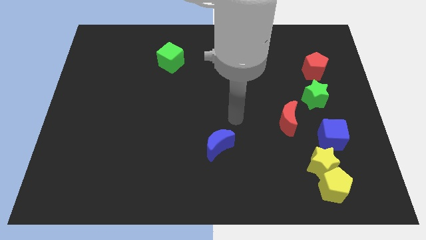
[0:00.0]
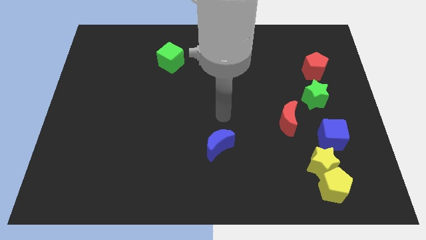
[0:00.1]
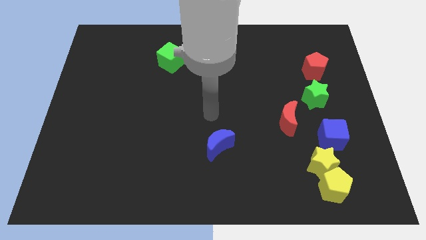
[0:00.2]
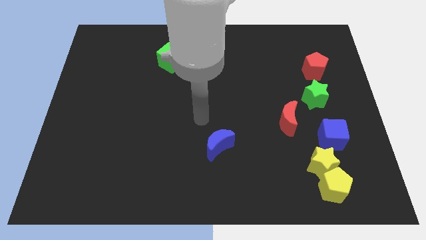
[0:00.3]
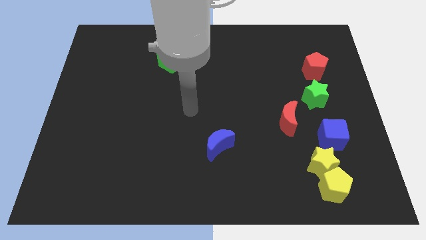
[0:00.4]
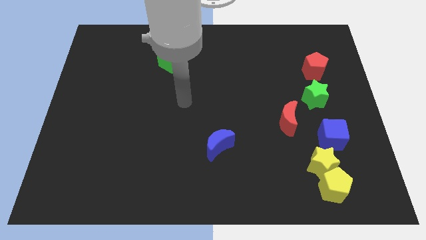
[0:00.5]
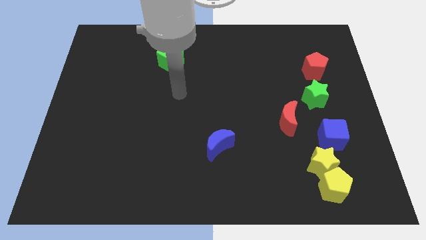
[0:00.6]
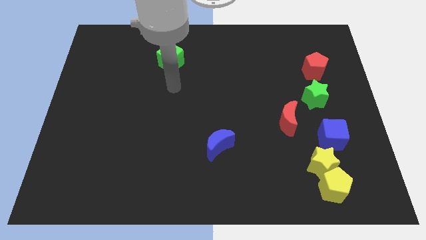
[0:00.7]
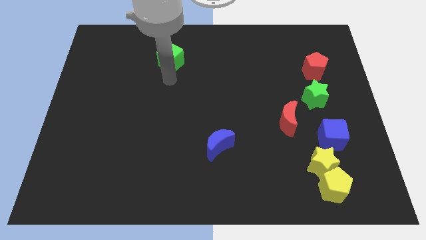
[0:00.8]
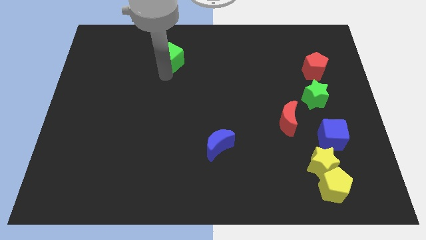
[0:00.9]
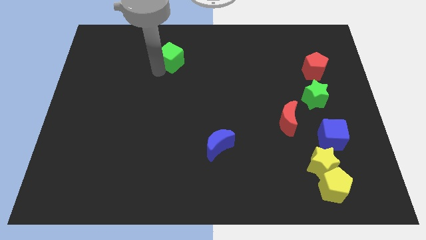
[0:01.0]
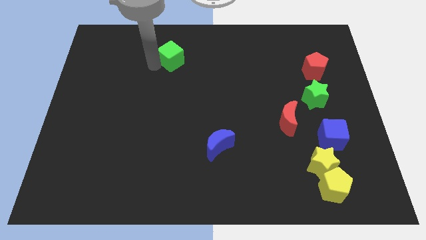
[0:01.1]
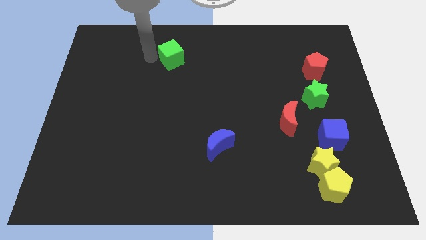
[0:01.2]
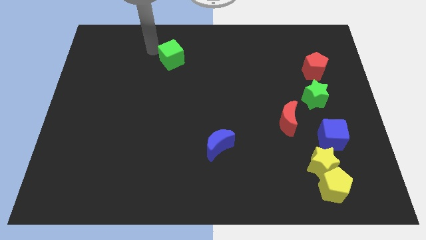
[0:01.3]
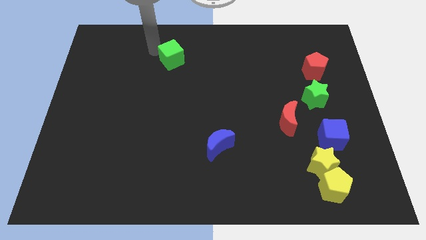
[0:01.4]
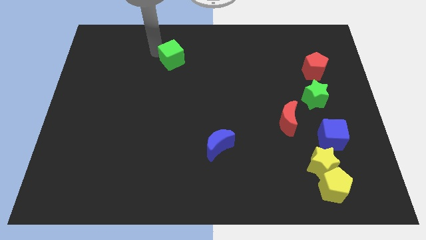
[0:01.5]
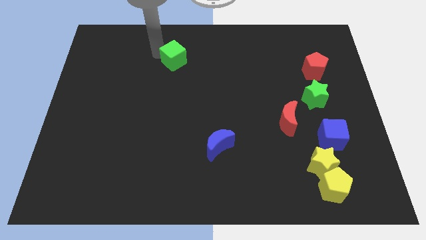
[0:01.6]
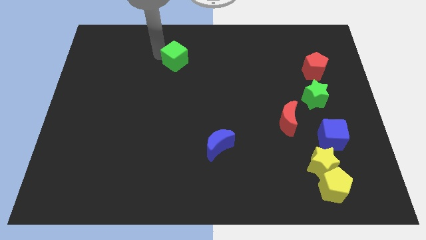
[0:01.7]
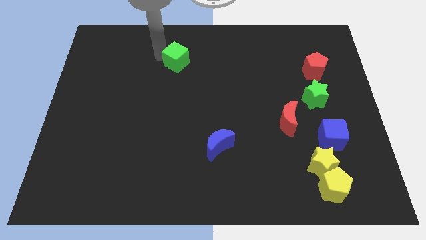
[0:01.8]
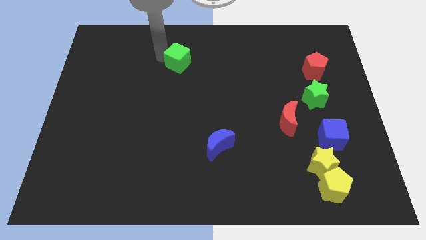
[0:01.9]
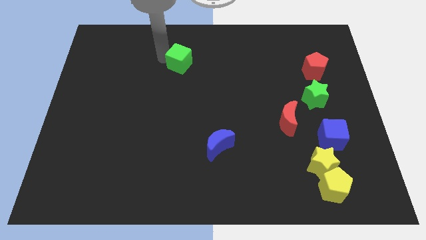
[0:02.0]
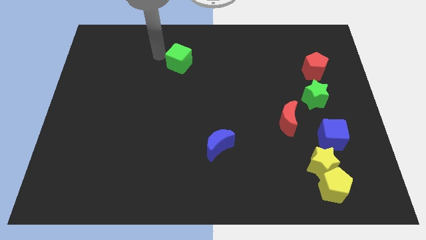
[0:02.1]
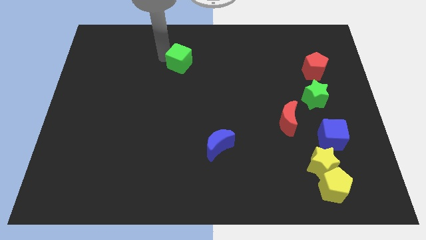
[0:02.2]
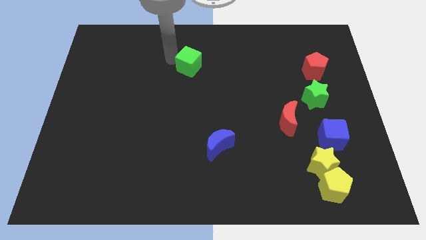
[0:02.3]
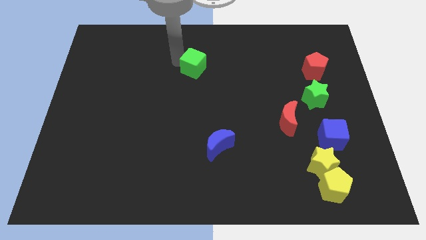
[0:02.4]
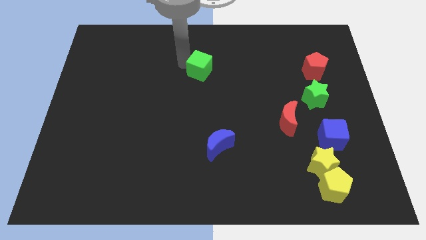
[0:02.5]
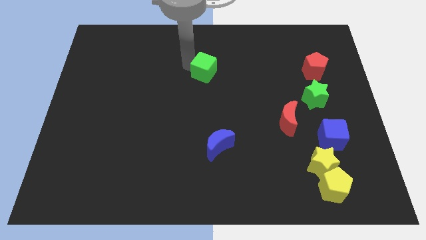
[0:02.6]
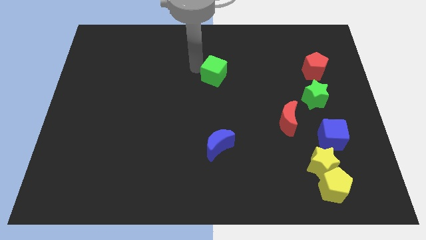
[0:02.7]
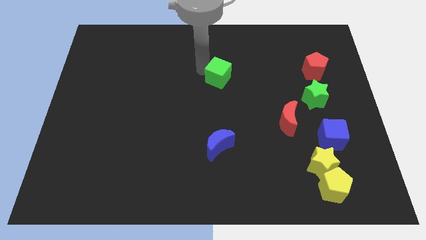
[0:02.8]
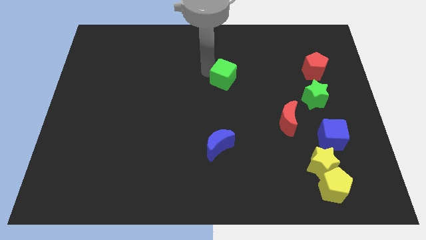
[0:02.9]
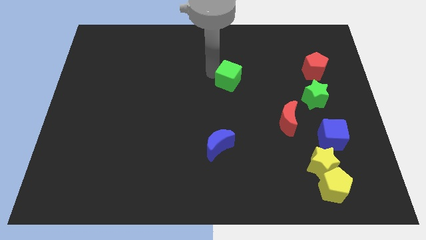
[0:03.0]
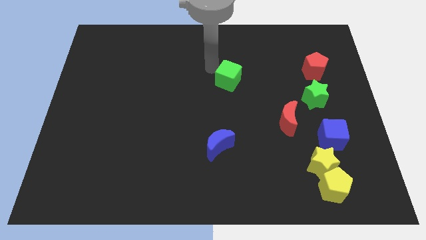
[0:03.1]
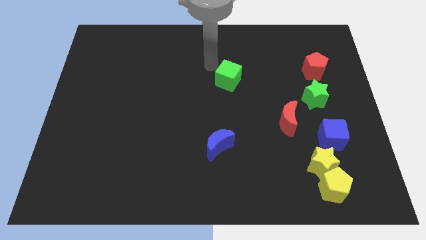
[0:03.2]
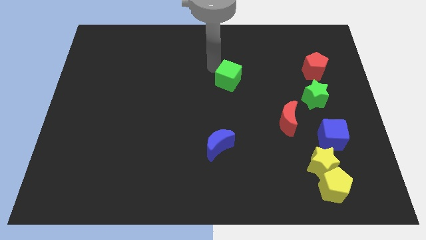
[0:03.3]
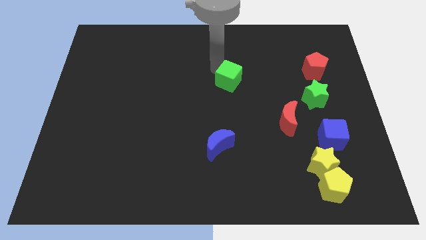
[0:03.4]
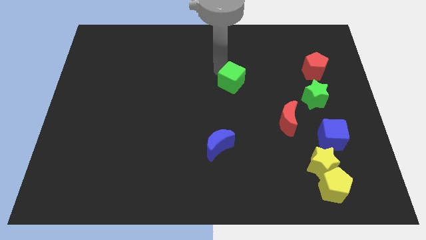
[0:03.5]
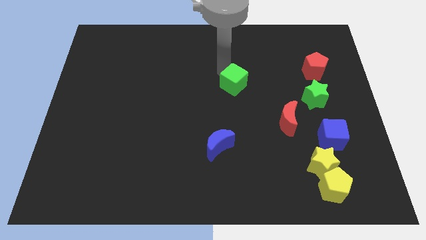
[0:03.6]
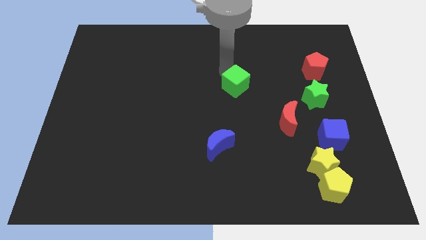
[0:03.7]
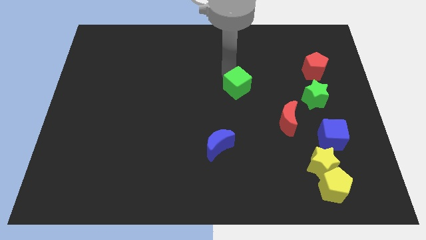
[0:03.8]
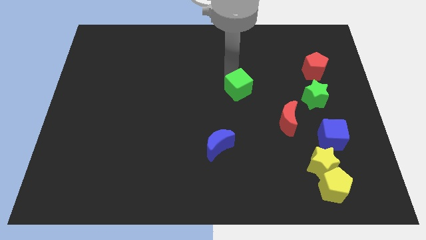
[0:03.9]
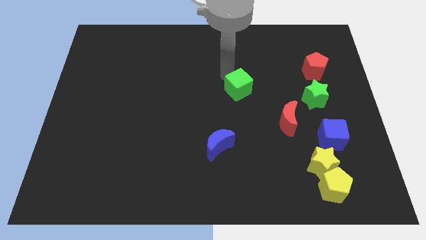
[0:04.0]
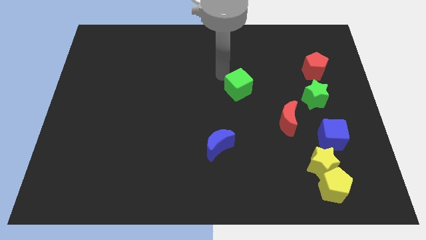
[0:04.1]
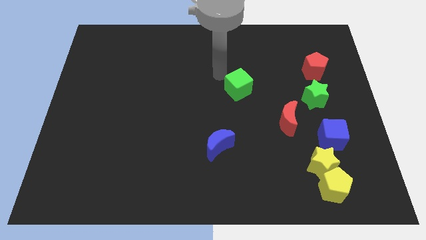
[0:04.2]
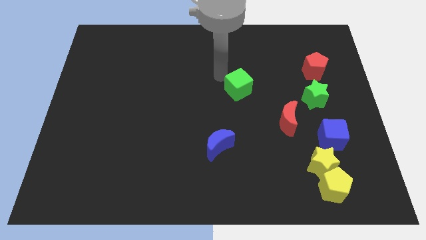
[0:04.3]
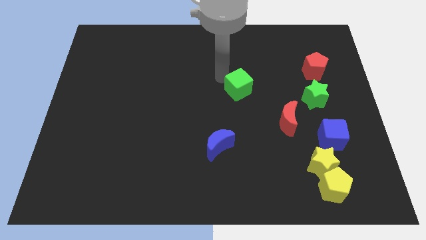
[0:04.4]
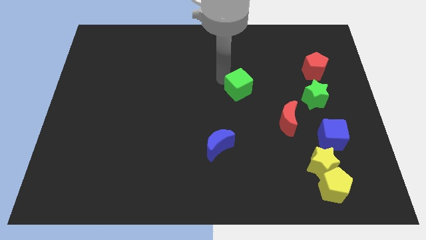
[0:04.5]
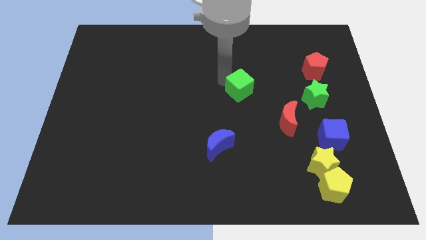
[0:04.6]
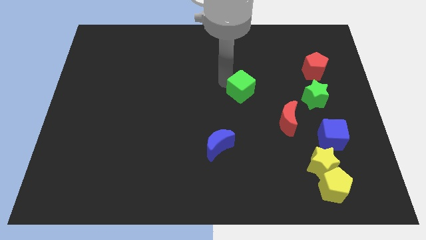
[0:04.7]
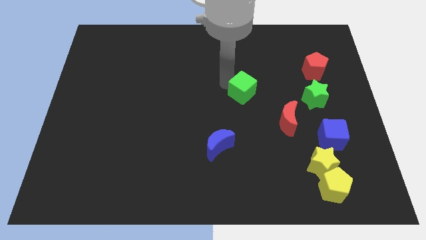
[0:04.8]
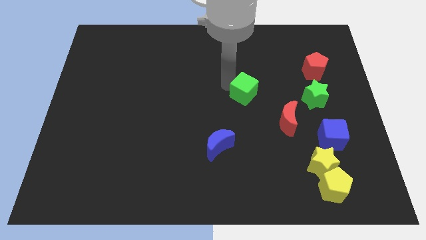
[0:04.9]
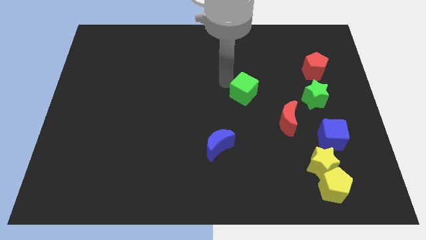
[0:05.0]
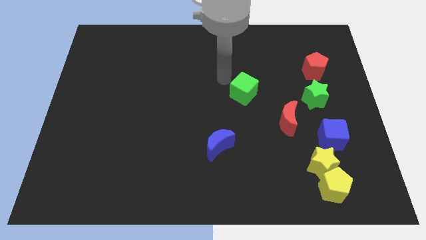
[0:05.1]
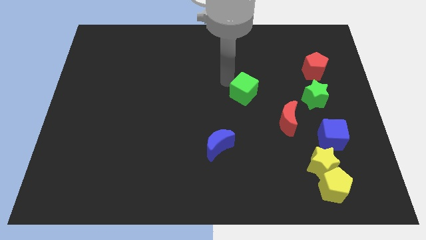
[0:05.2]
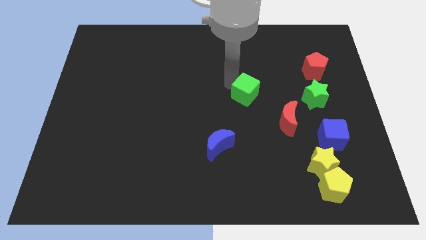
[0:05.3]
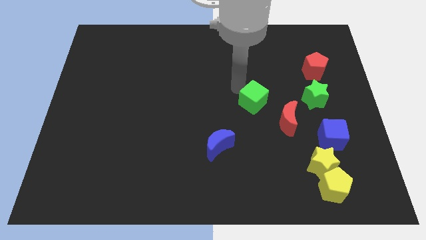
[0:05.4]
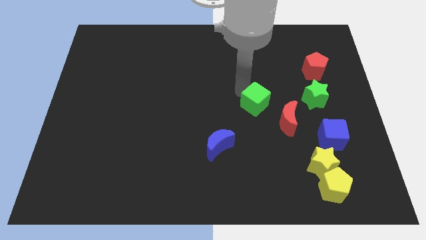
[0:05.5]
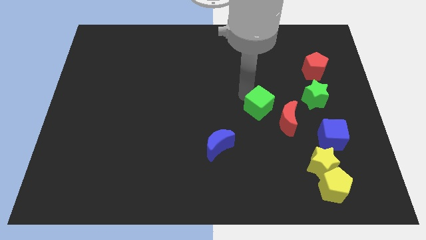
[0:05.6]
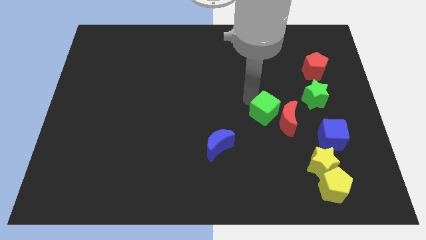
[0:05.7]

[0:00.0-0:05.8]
move the green cube close to the red moon
